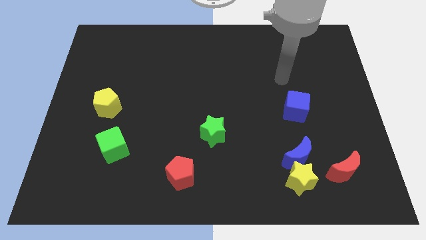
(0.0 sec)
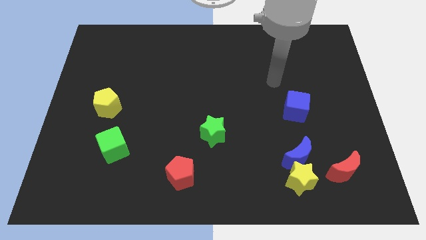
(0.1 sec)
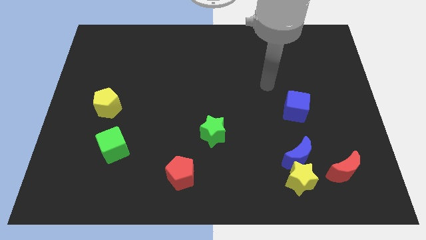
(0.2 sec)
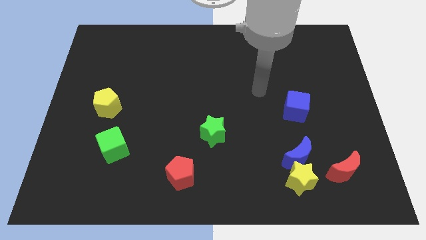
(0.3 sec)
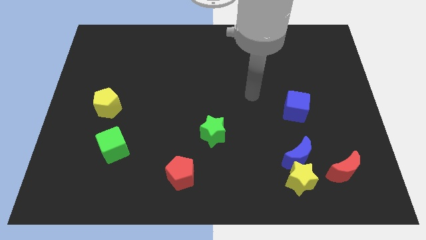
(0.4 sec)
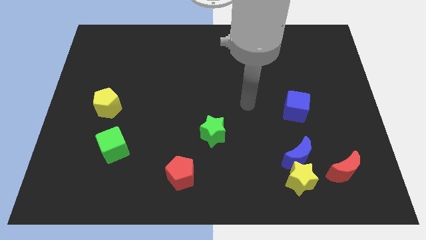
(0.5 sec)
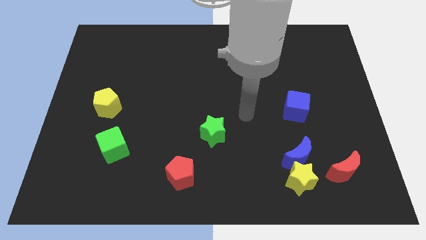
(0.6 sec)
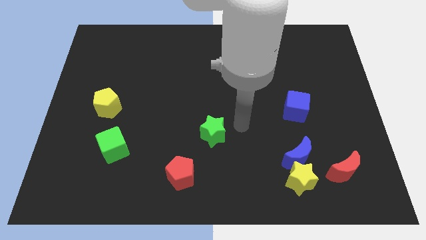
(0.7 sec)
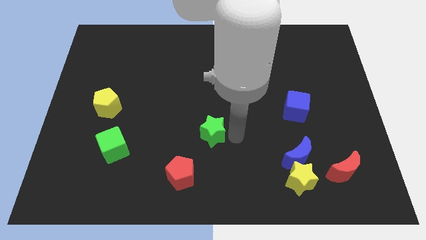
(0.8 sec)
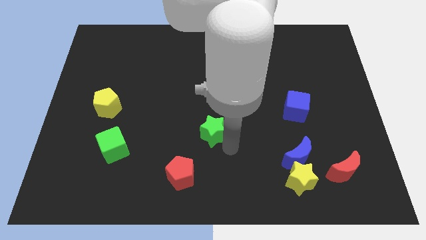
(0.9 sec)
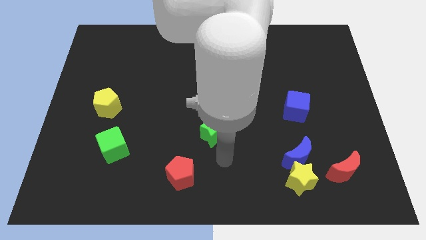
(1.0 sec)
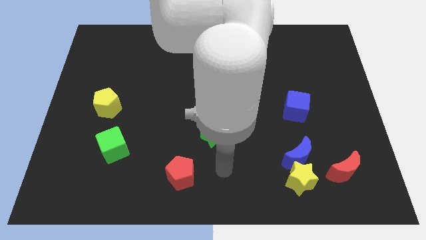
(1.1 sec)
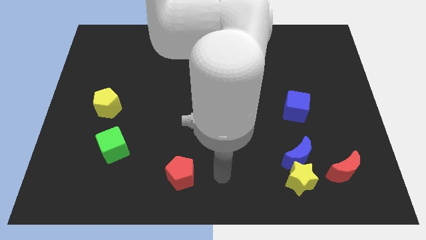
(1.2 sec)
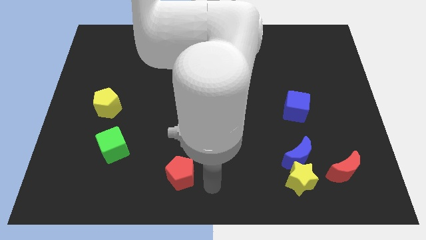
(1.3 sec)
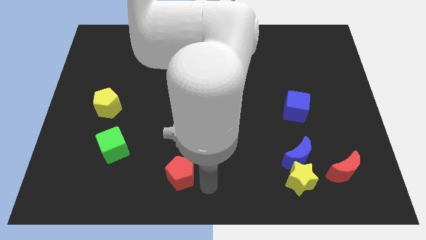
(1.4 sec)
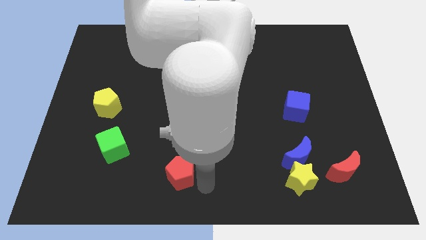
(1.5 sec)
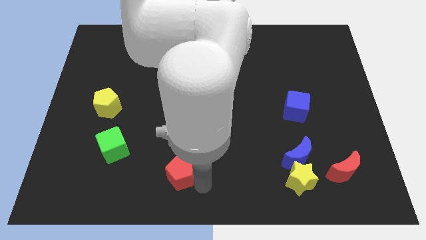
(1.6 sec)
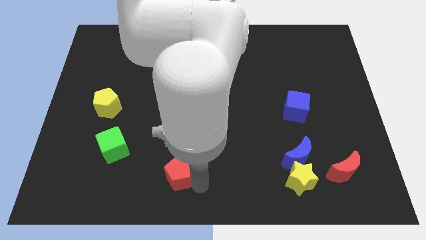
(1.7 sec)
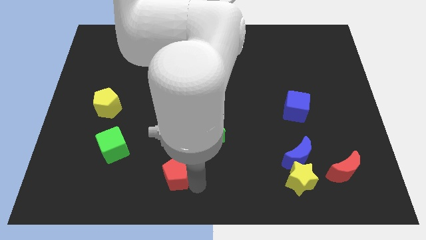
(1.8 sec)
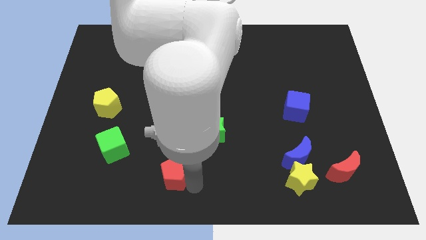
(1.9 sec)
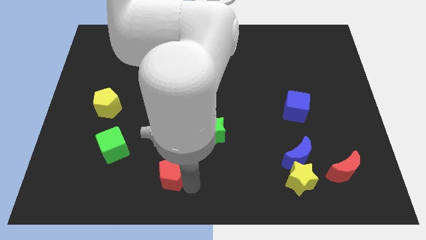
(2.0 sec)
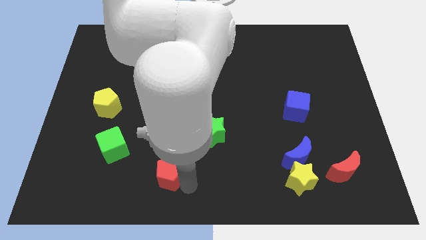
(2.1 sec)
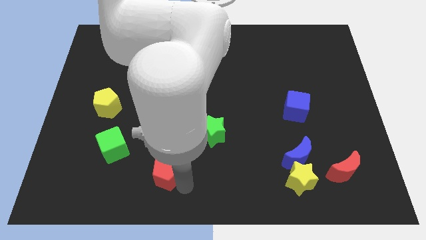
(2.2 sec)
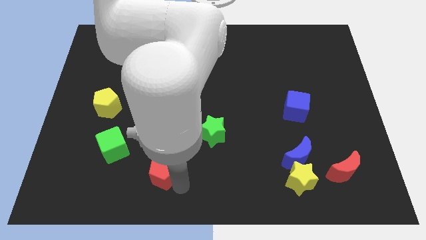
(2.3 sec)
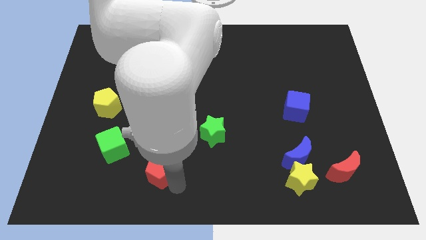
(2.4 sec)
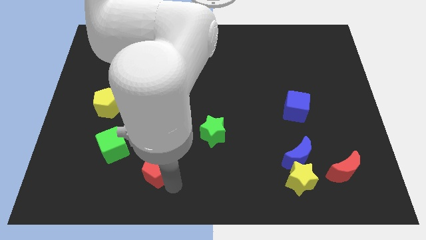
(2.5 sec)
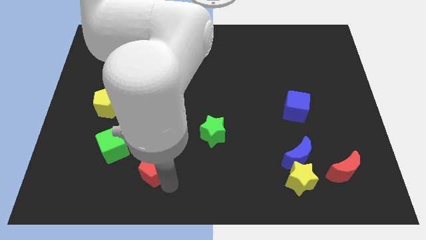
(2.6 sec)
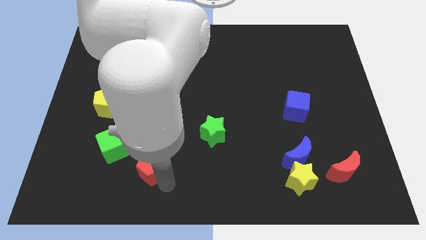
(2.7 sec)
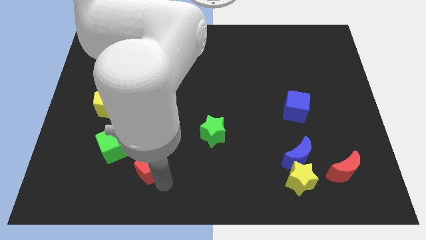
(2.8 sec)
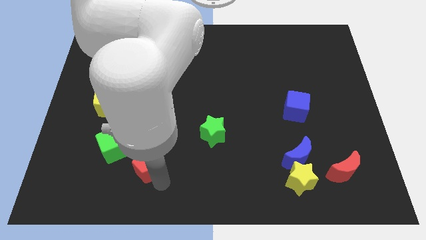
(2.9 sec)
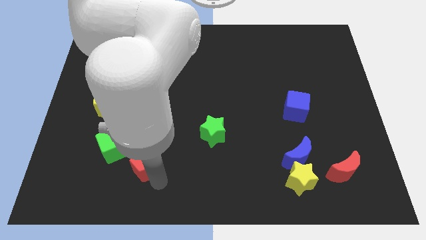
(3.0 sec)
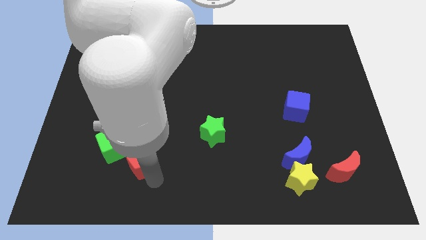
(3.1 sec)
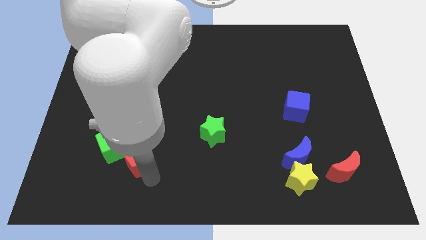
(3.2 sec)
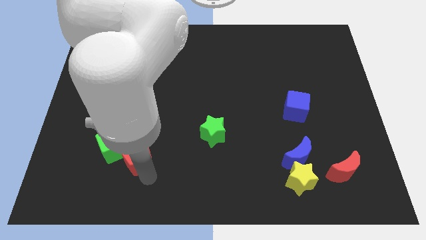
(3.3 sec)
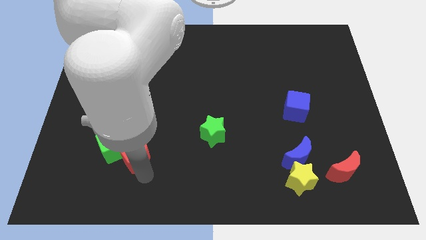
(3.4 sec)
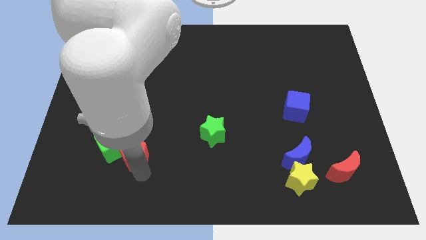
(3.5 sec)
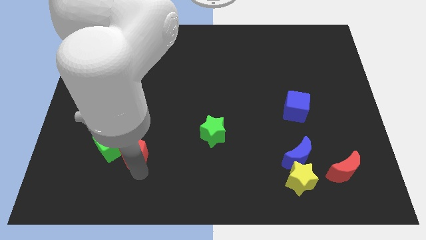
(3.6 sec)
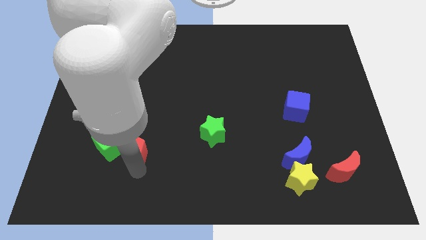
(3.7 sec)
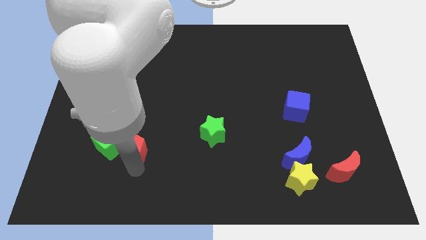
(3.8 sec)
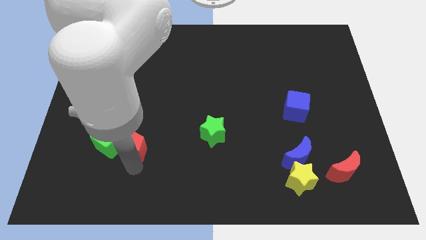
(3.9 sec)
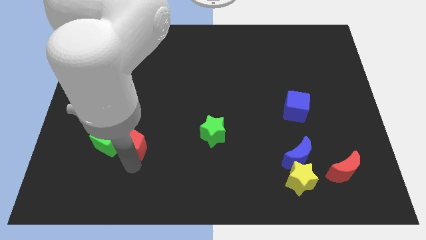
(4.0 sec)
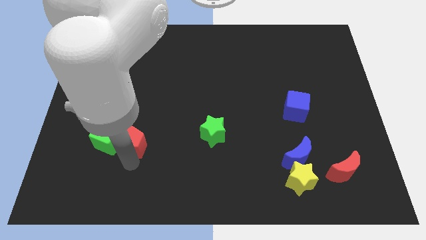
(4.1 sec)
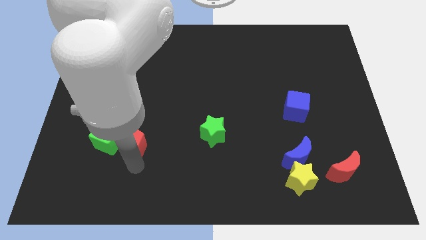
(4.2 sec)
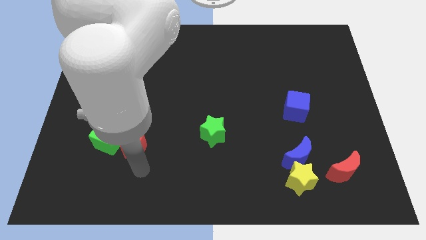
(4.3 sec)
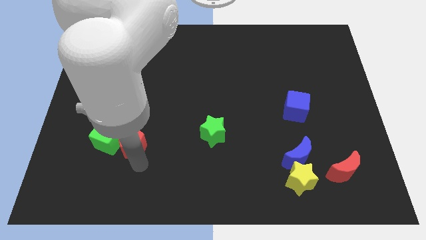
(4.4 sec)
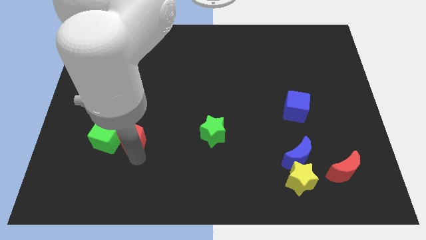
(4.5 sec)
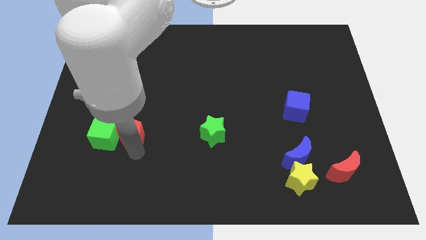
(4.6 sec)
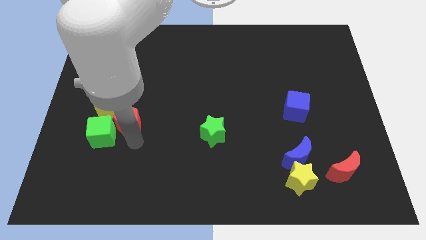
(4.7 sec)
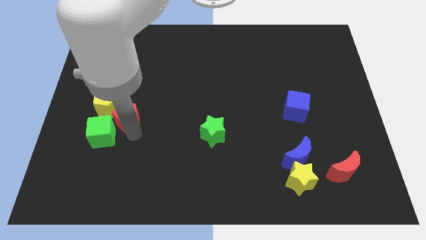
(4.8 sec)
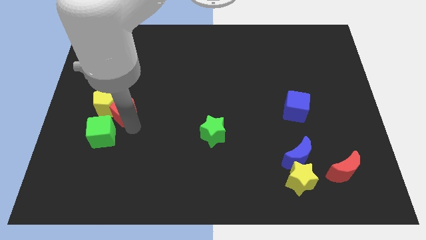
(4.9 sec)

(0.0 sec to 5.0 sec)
slide the red pentagon to the yellow pentagon

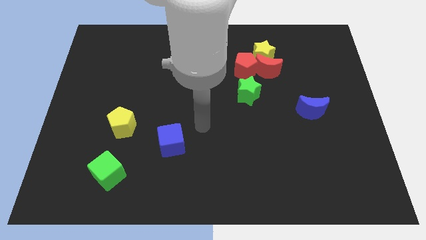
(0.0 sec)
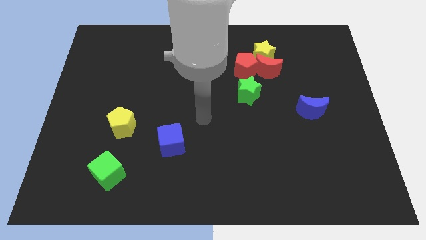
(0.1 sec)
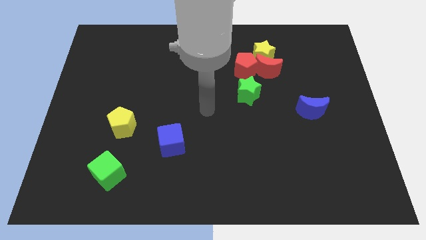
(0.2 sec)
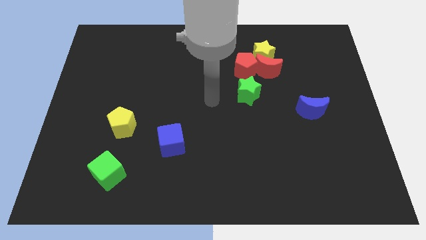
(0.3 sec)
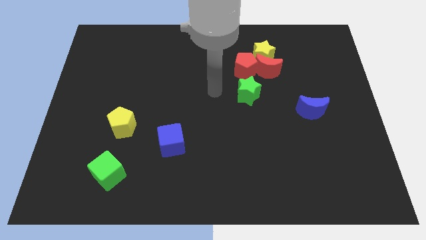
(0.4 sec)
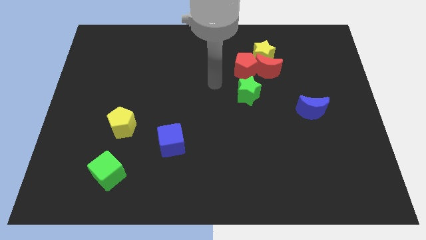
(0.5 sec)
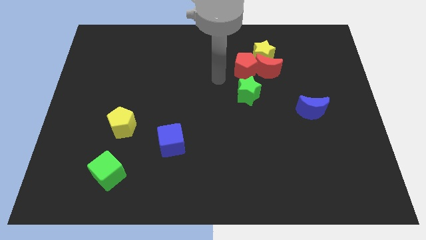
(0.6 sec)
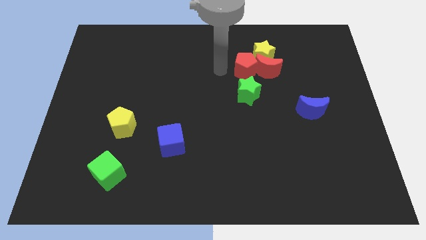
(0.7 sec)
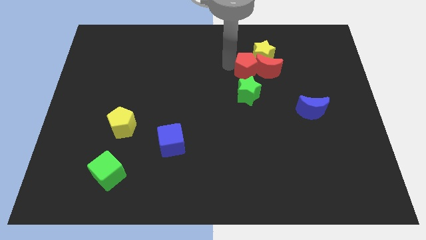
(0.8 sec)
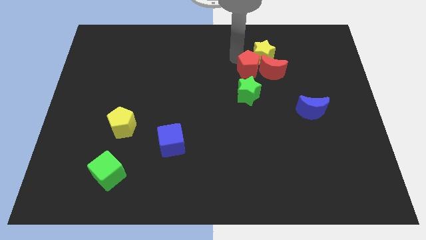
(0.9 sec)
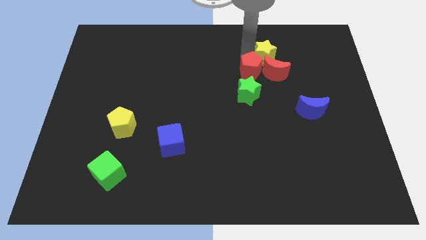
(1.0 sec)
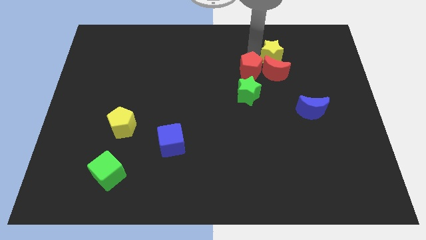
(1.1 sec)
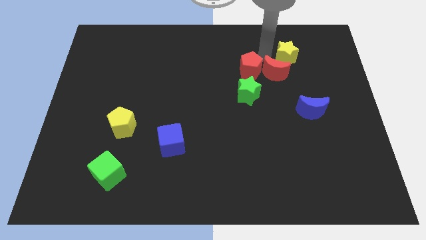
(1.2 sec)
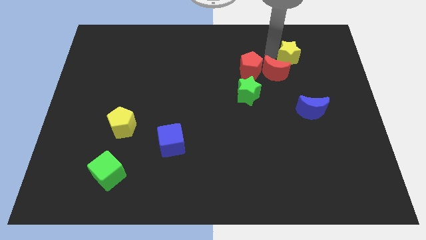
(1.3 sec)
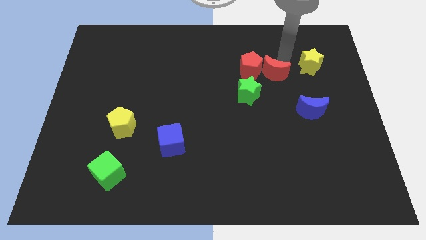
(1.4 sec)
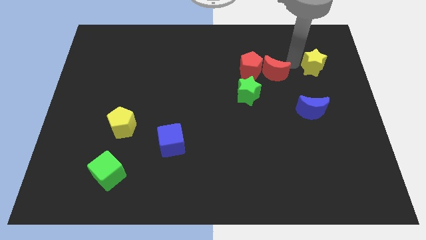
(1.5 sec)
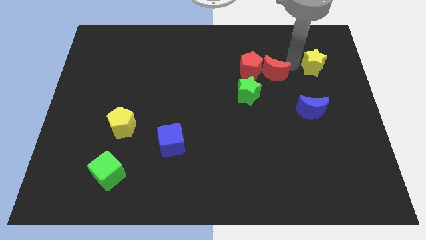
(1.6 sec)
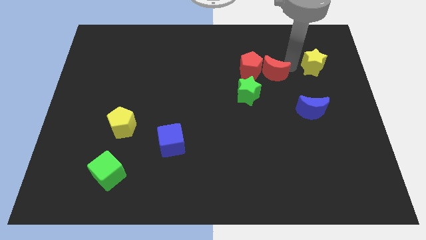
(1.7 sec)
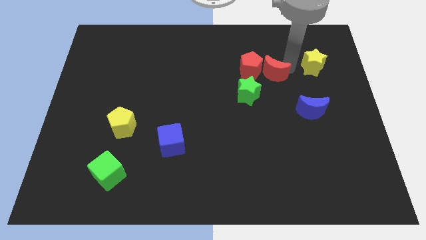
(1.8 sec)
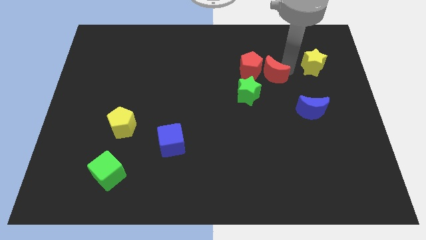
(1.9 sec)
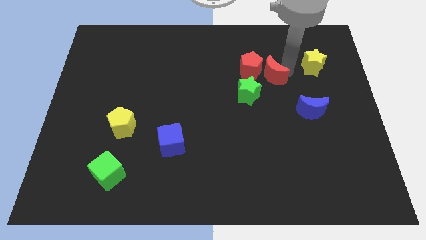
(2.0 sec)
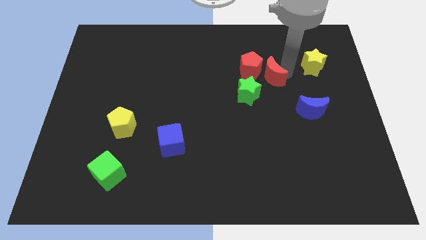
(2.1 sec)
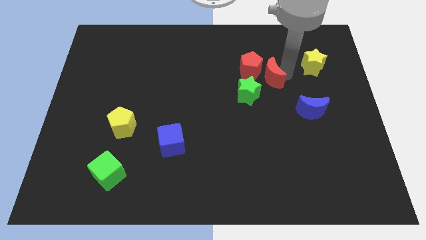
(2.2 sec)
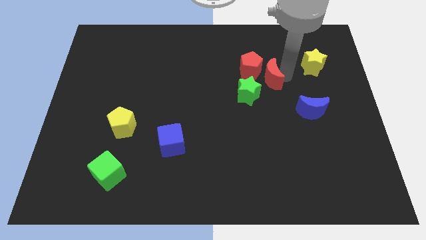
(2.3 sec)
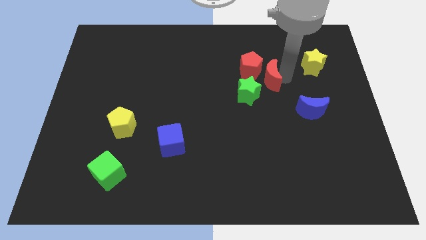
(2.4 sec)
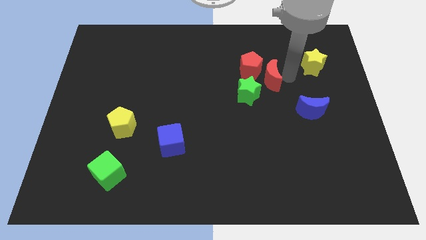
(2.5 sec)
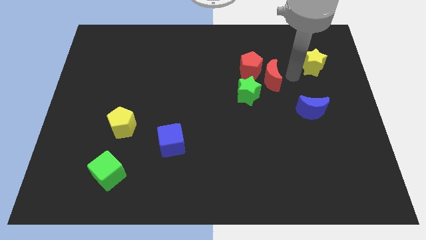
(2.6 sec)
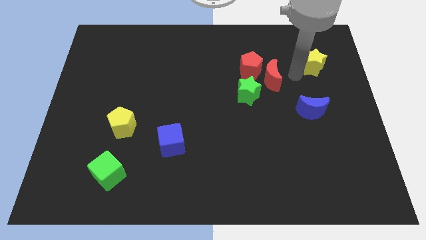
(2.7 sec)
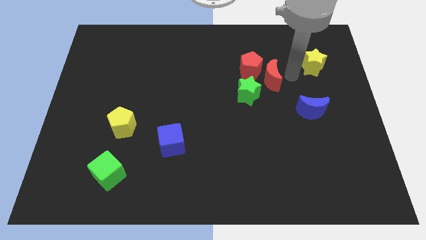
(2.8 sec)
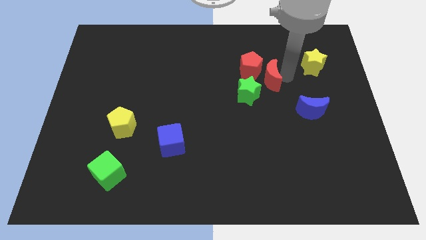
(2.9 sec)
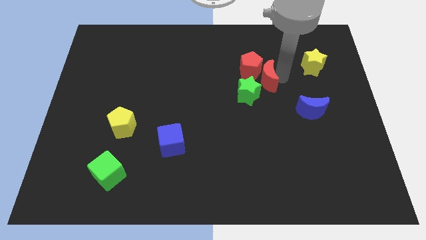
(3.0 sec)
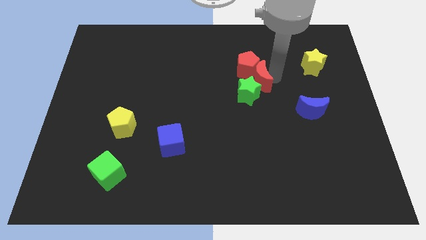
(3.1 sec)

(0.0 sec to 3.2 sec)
push the red moon close to the green star
